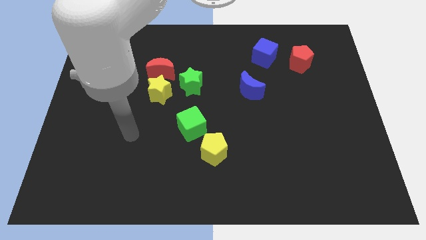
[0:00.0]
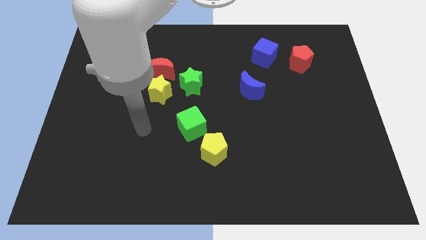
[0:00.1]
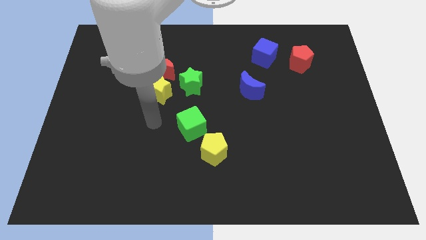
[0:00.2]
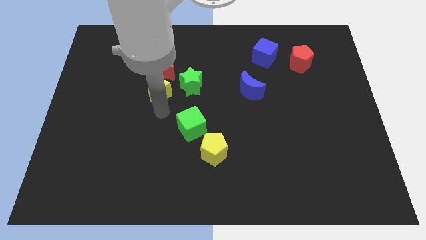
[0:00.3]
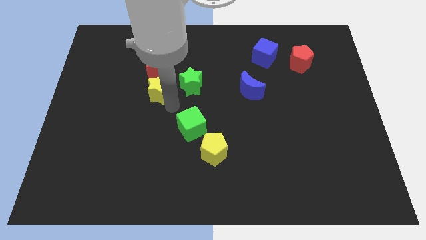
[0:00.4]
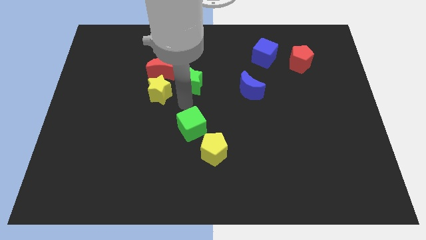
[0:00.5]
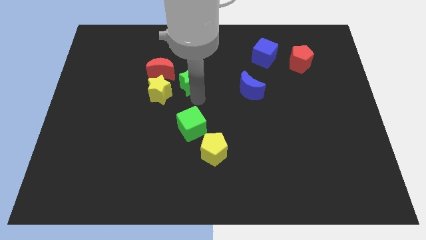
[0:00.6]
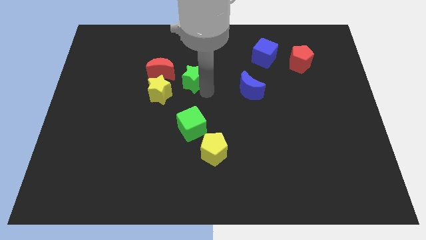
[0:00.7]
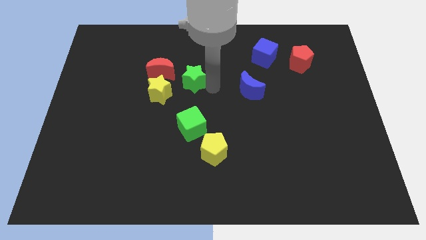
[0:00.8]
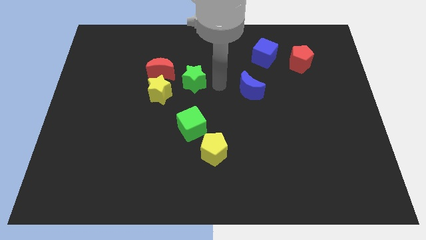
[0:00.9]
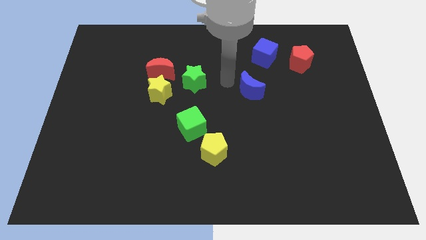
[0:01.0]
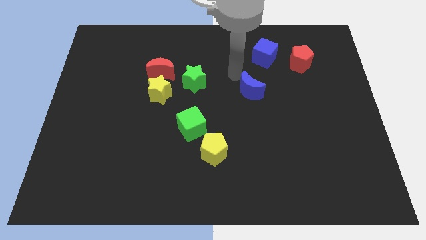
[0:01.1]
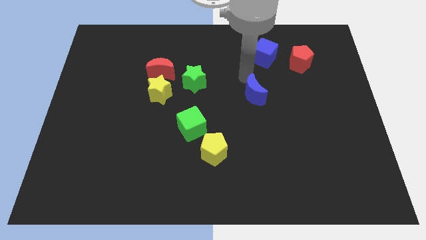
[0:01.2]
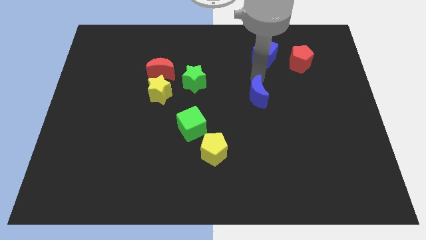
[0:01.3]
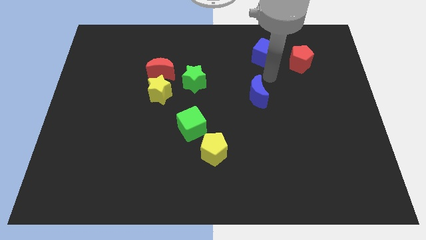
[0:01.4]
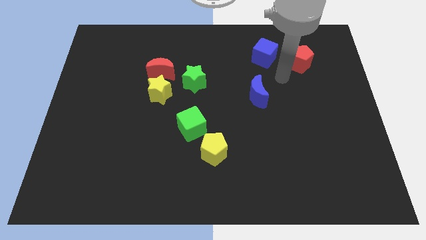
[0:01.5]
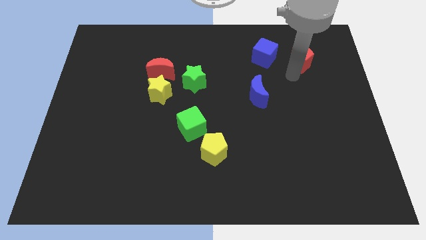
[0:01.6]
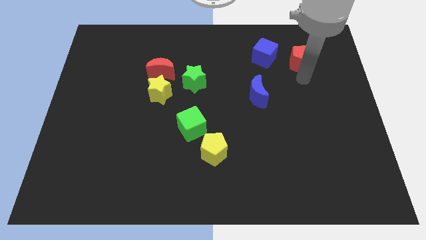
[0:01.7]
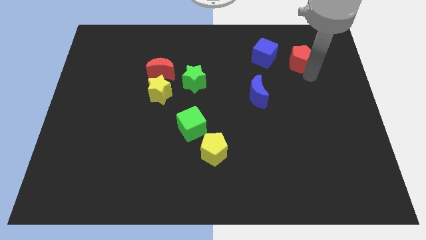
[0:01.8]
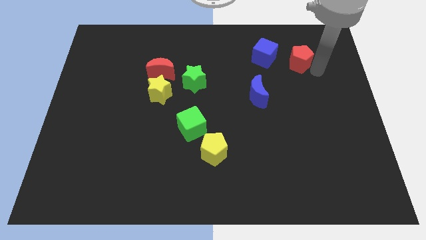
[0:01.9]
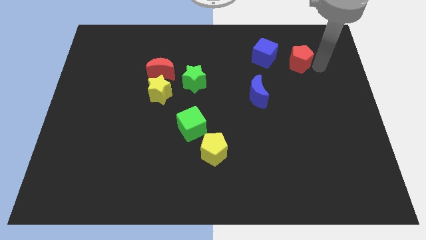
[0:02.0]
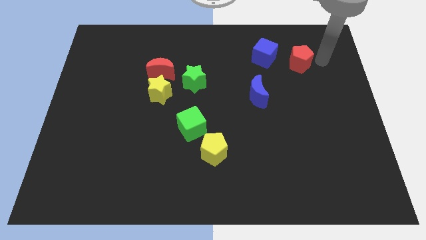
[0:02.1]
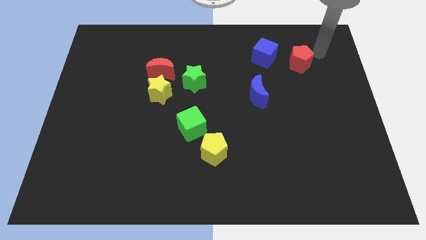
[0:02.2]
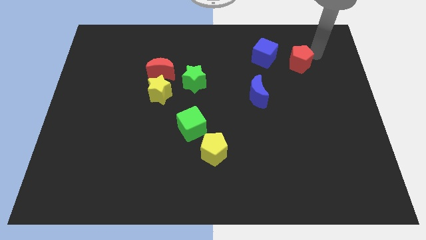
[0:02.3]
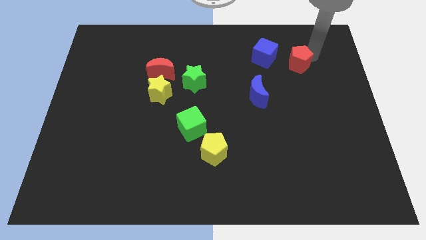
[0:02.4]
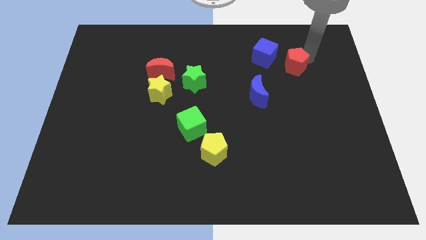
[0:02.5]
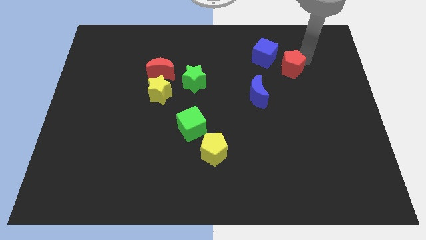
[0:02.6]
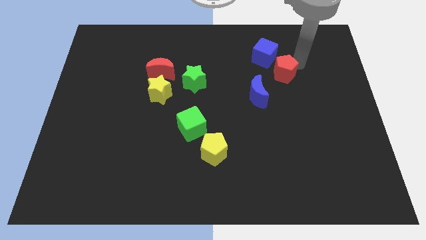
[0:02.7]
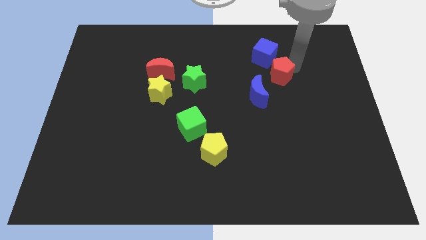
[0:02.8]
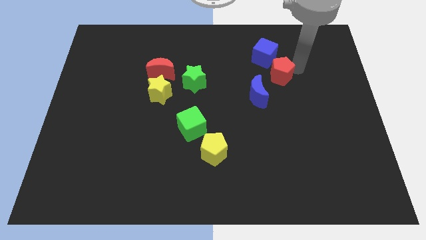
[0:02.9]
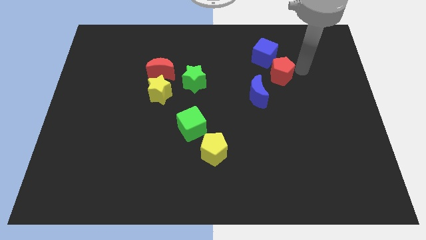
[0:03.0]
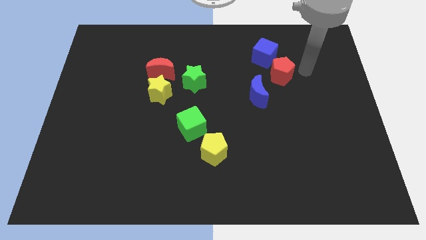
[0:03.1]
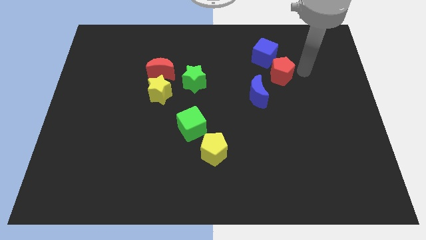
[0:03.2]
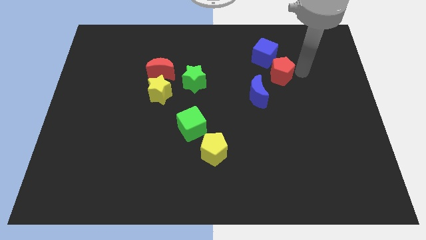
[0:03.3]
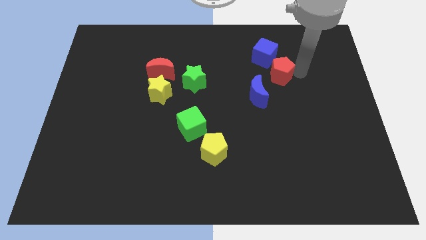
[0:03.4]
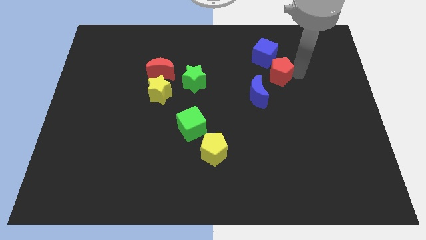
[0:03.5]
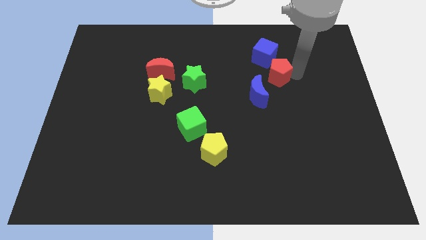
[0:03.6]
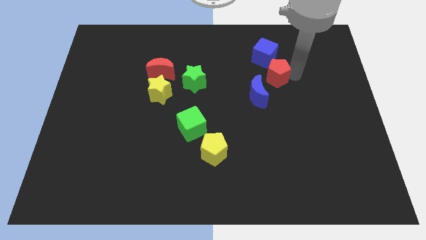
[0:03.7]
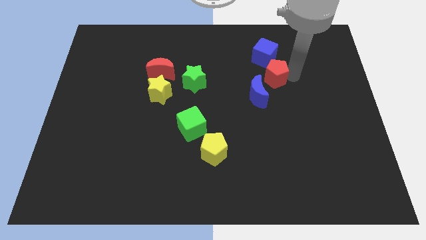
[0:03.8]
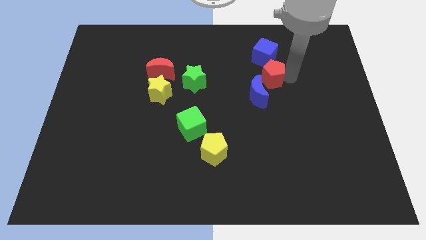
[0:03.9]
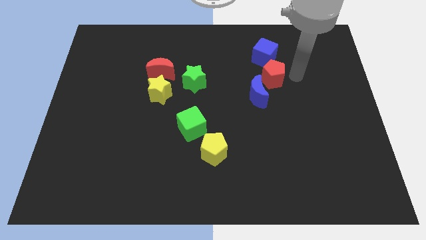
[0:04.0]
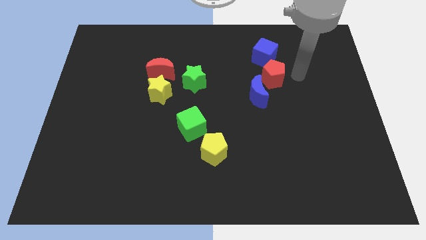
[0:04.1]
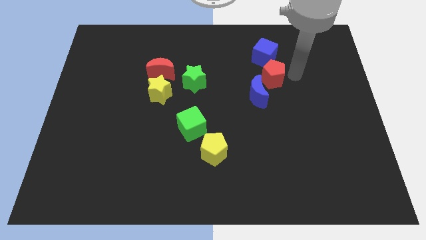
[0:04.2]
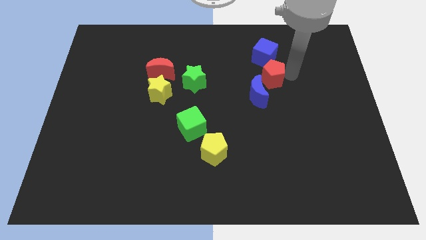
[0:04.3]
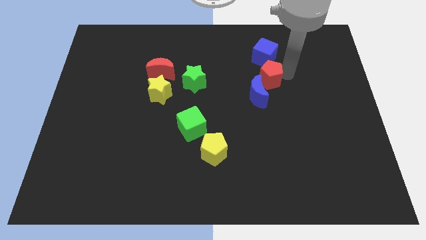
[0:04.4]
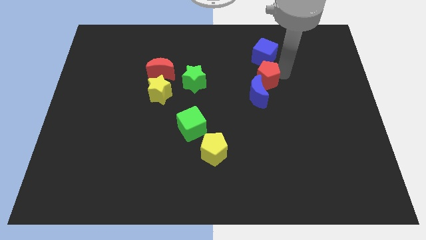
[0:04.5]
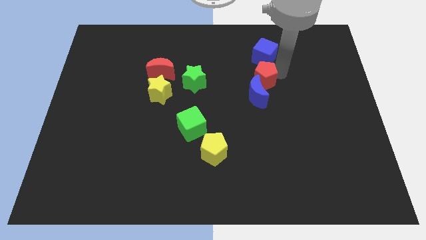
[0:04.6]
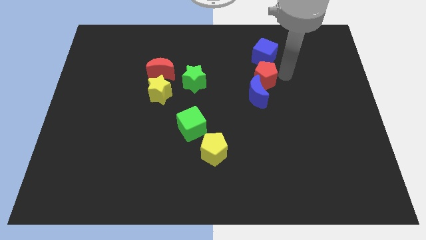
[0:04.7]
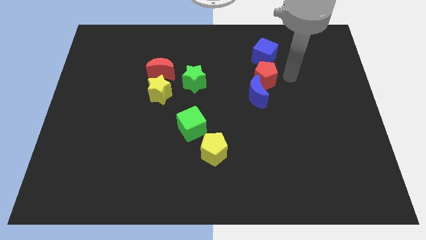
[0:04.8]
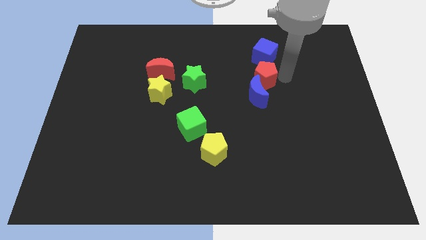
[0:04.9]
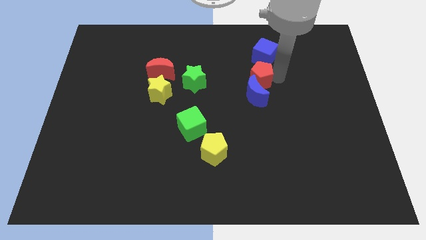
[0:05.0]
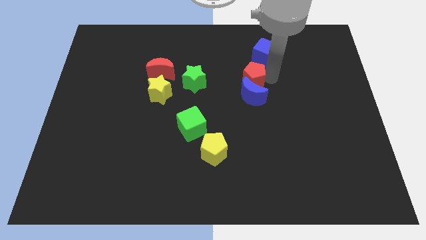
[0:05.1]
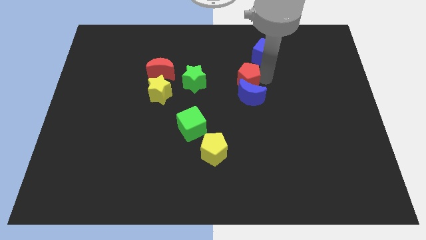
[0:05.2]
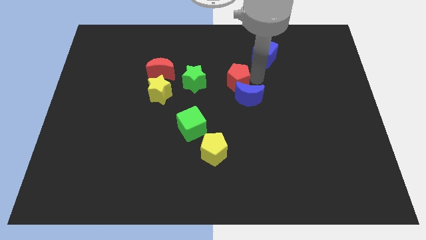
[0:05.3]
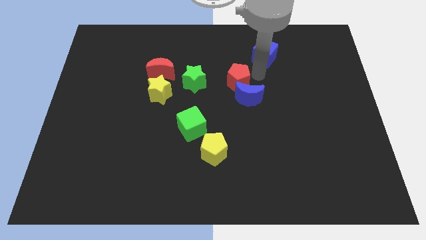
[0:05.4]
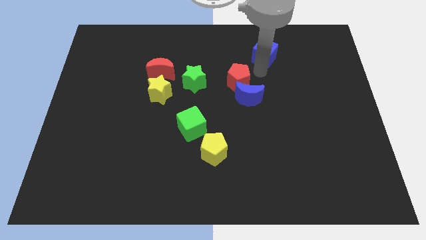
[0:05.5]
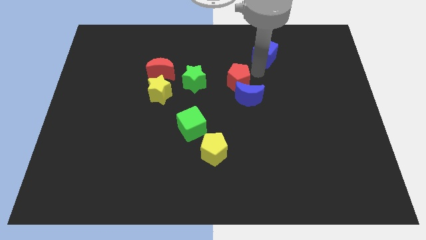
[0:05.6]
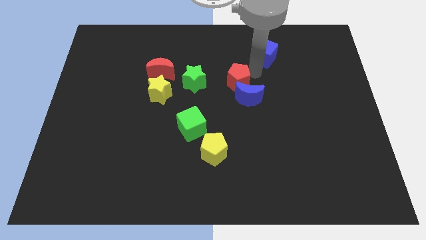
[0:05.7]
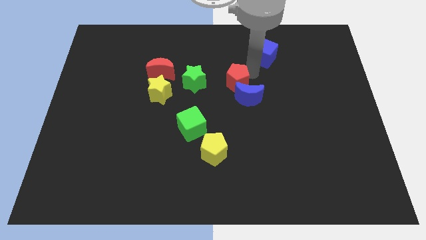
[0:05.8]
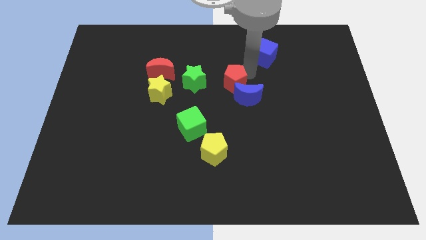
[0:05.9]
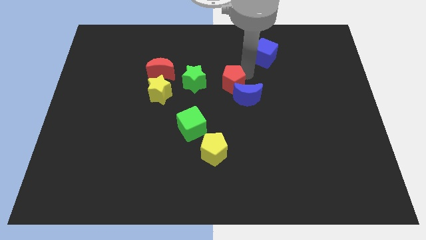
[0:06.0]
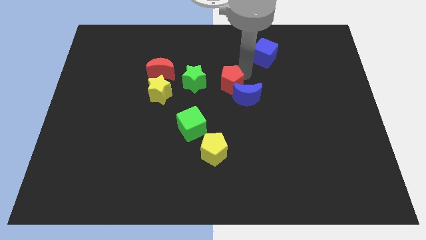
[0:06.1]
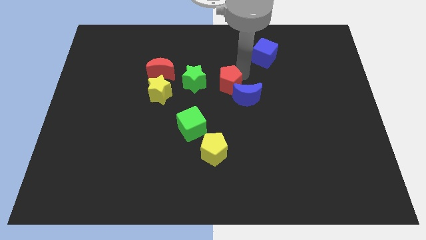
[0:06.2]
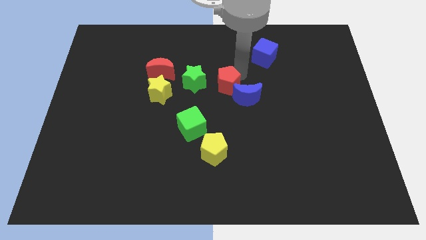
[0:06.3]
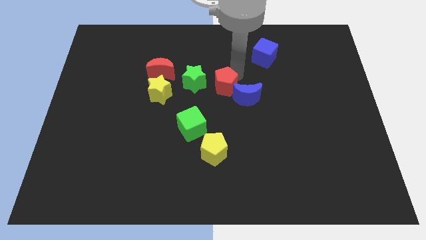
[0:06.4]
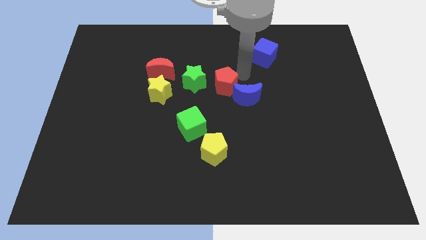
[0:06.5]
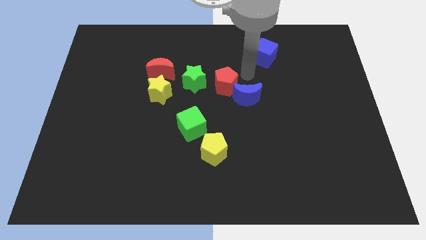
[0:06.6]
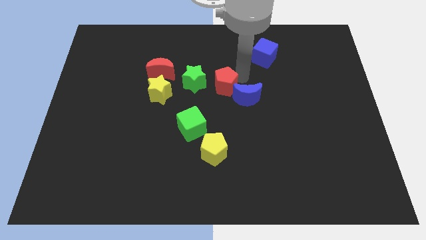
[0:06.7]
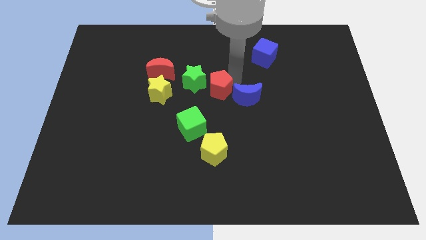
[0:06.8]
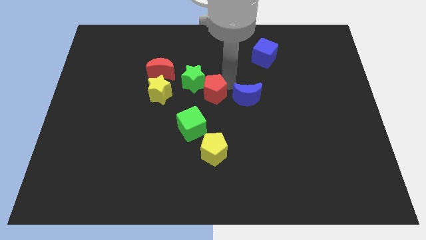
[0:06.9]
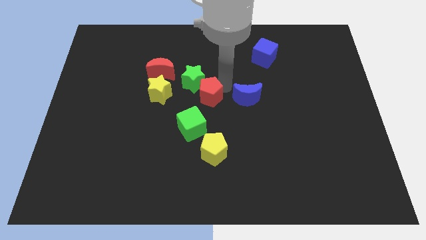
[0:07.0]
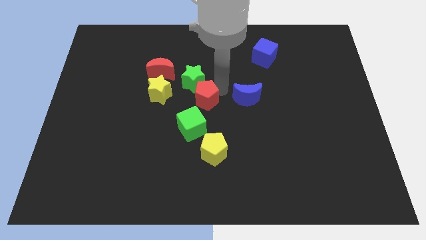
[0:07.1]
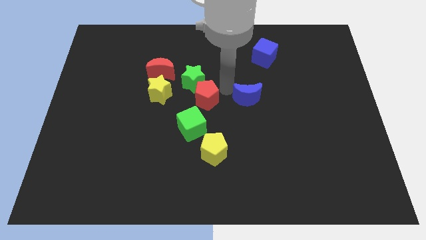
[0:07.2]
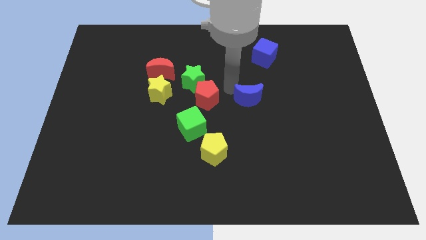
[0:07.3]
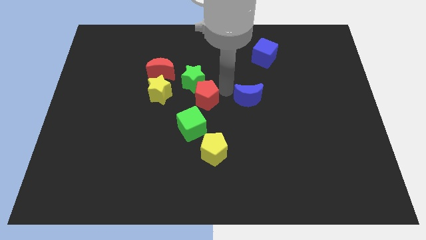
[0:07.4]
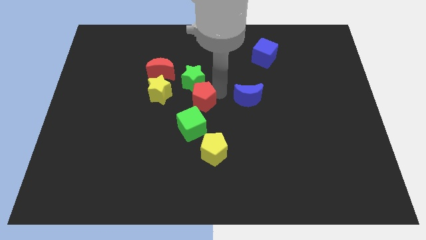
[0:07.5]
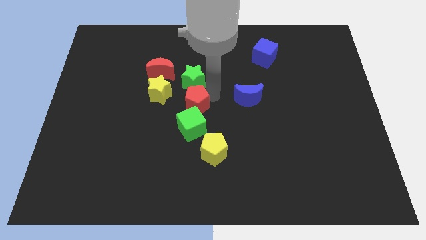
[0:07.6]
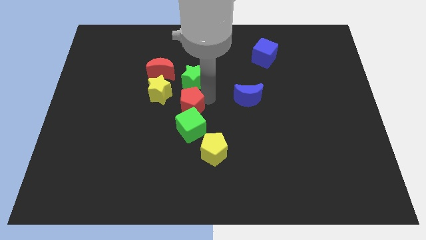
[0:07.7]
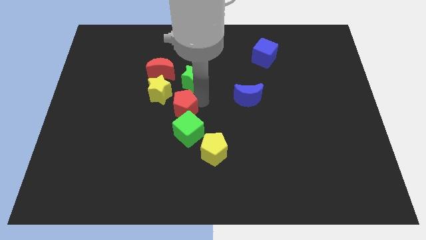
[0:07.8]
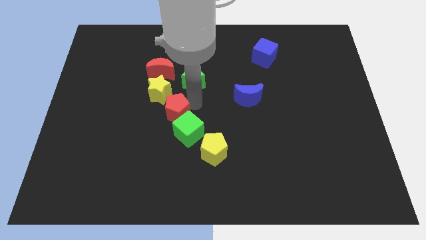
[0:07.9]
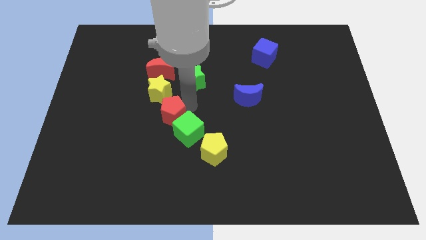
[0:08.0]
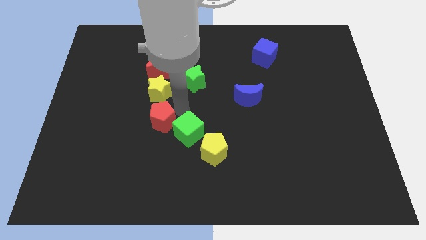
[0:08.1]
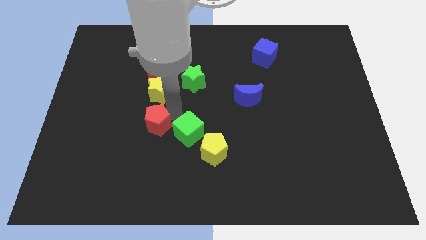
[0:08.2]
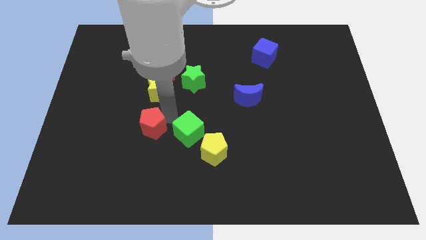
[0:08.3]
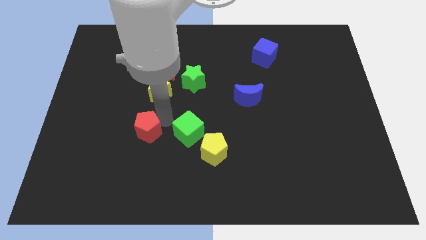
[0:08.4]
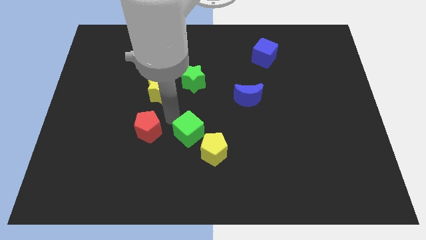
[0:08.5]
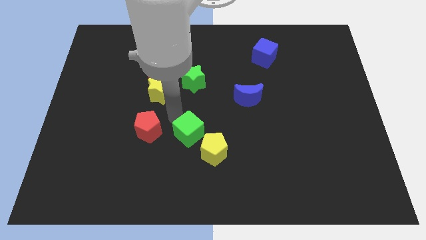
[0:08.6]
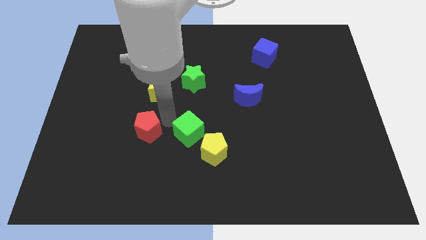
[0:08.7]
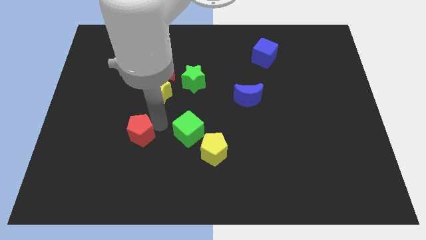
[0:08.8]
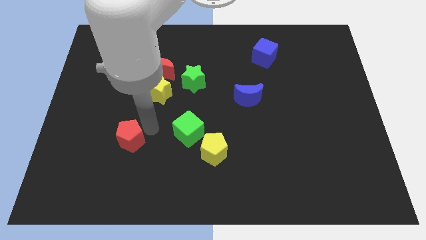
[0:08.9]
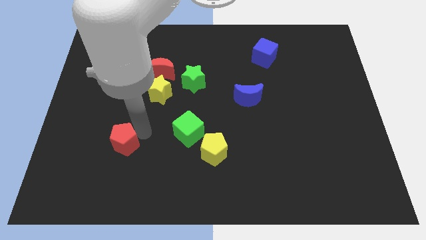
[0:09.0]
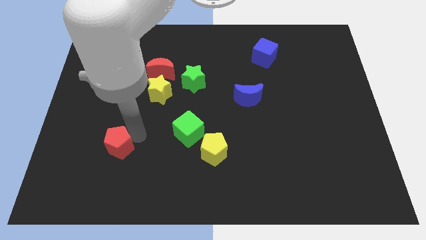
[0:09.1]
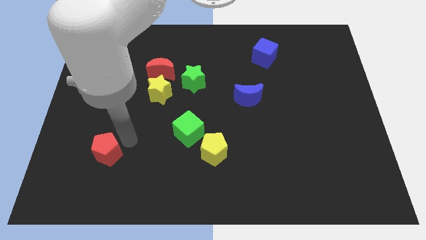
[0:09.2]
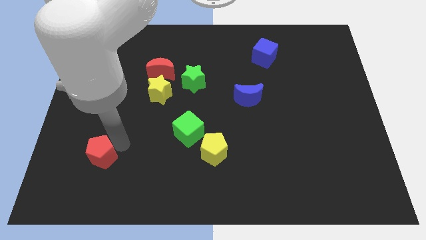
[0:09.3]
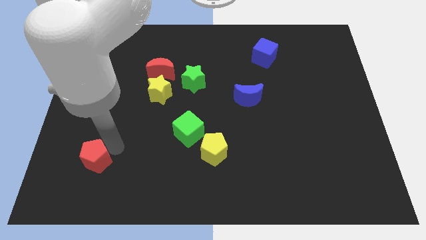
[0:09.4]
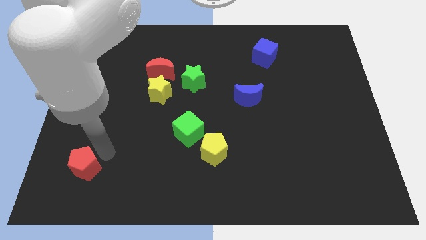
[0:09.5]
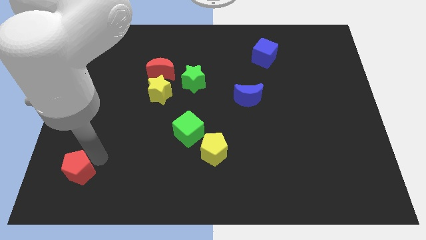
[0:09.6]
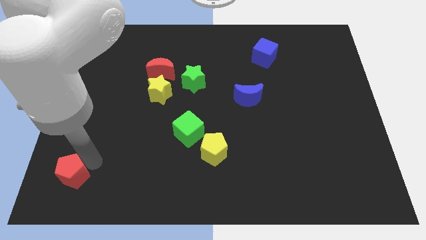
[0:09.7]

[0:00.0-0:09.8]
put the red pentagon to the bottom left corner
